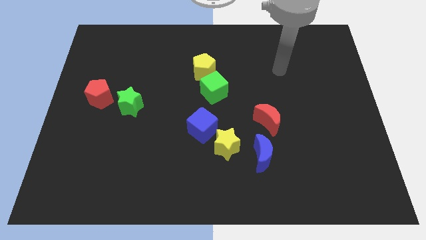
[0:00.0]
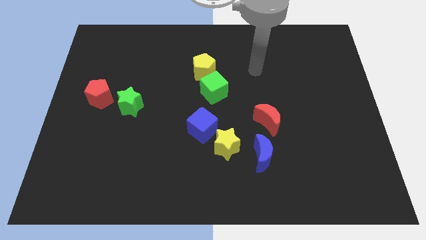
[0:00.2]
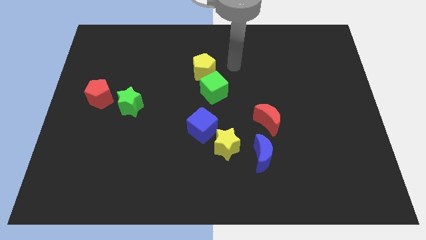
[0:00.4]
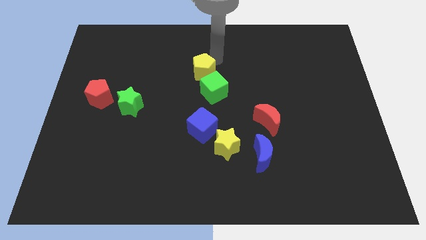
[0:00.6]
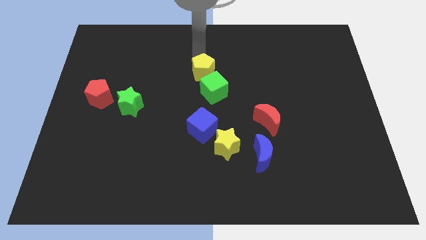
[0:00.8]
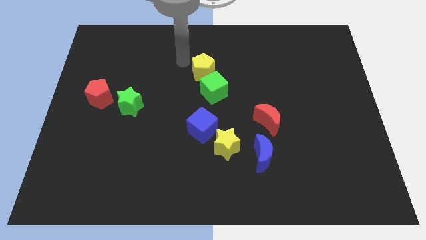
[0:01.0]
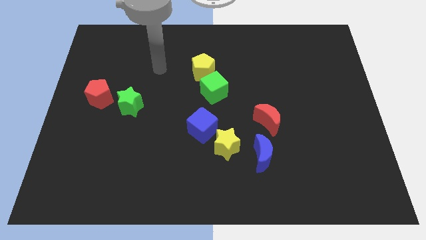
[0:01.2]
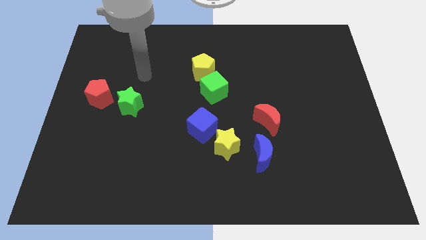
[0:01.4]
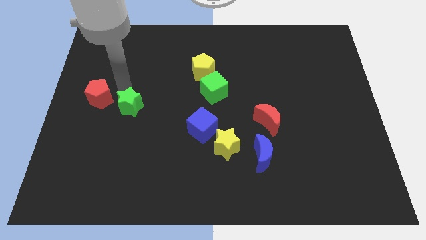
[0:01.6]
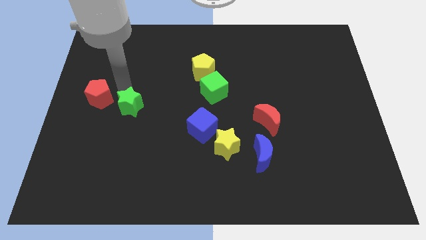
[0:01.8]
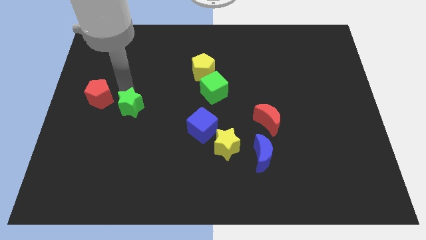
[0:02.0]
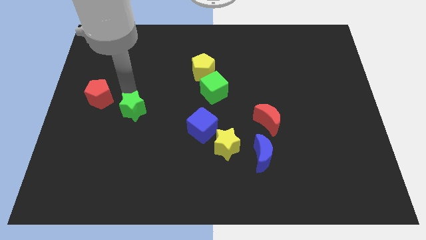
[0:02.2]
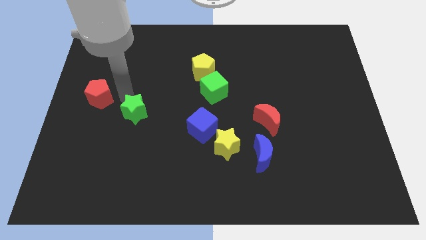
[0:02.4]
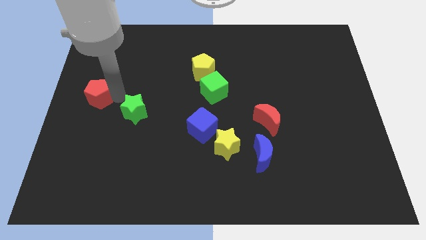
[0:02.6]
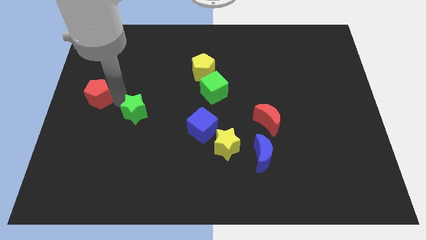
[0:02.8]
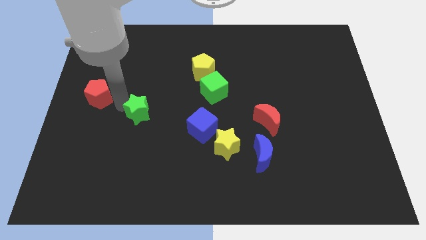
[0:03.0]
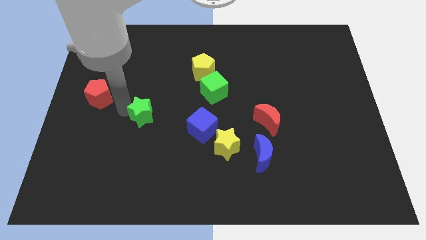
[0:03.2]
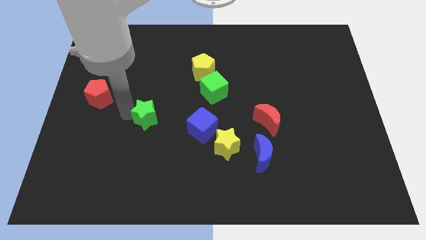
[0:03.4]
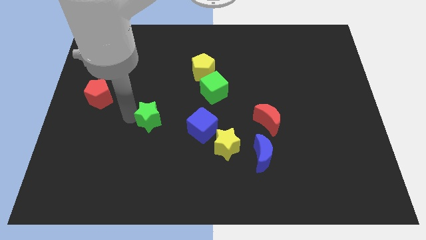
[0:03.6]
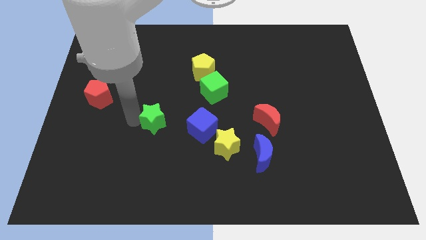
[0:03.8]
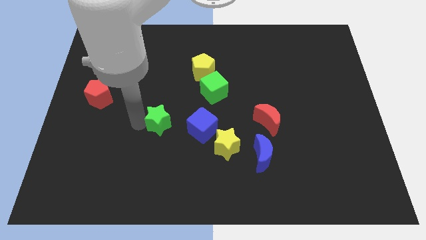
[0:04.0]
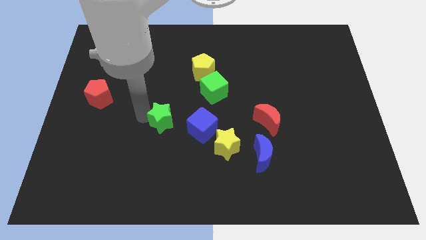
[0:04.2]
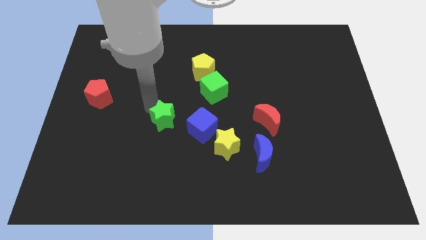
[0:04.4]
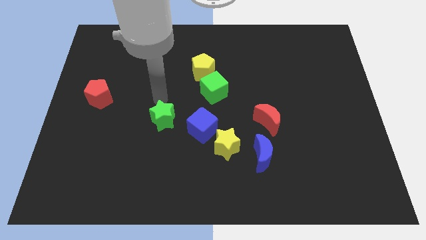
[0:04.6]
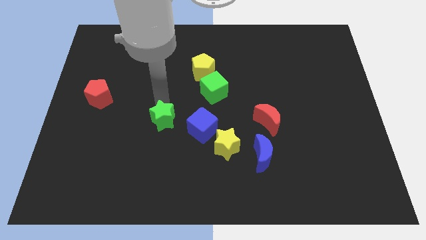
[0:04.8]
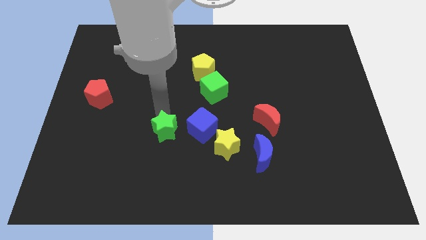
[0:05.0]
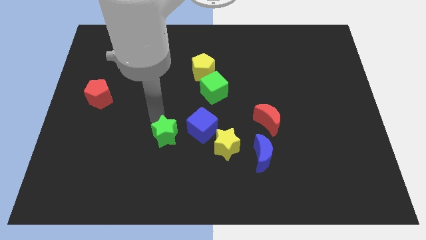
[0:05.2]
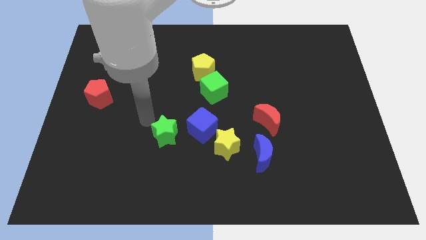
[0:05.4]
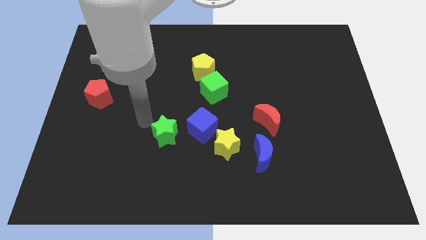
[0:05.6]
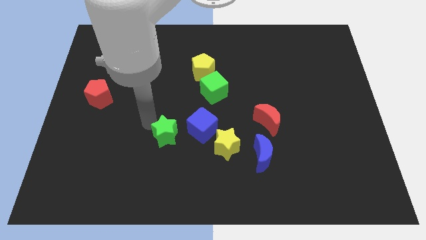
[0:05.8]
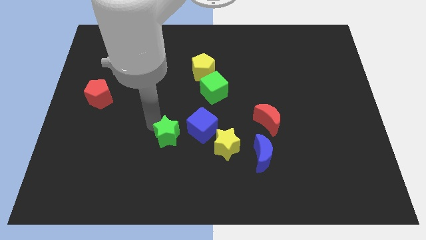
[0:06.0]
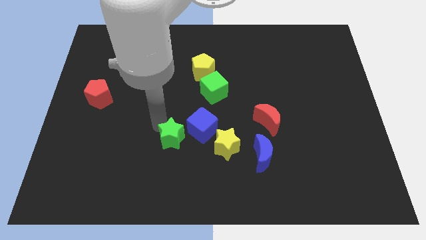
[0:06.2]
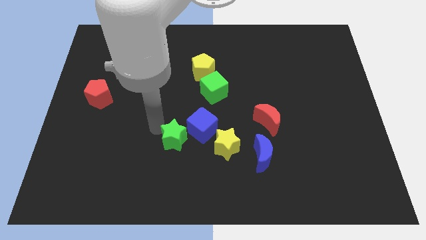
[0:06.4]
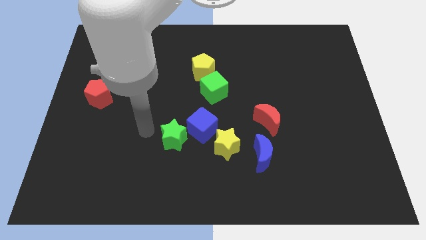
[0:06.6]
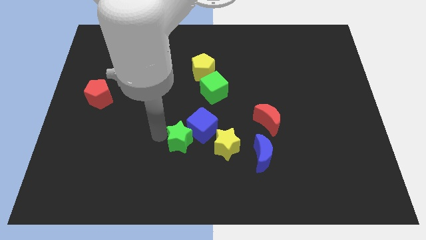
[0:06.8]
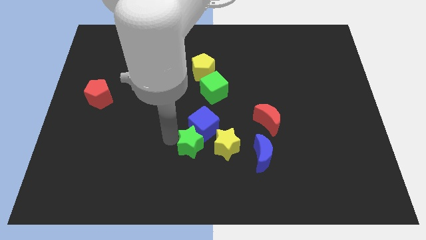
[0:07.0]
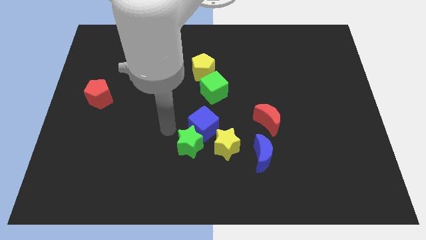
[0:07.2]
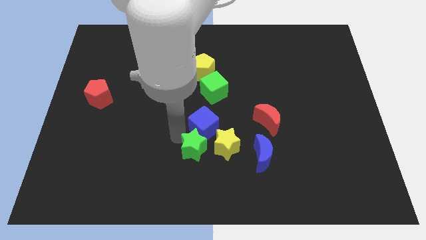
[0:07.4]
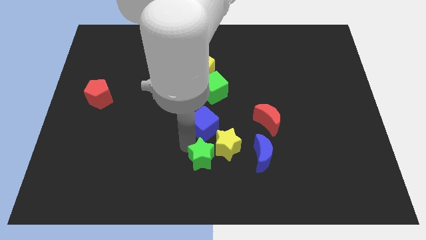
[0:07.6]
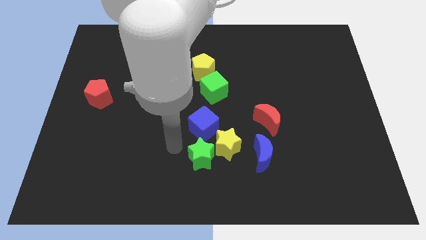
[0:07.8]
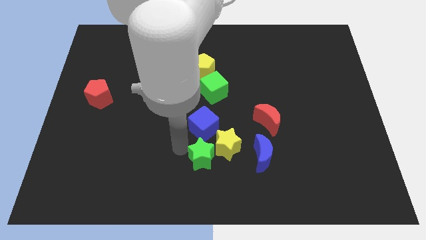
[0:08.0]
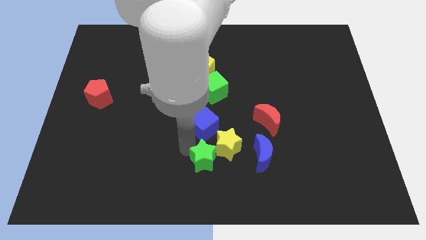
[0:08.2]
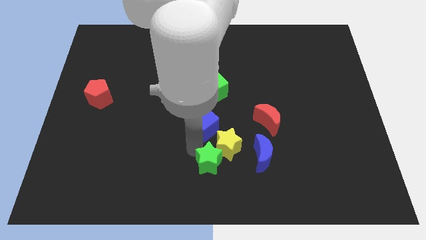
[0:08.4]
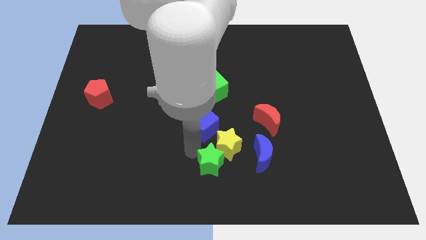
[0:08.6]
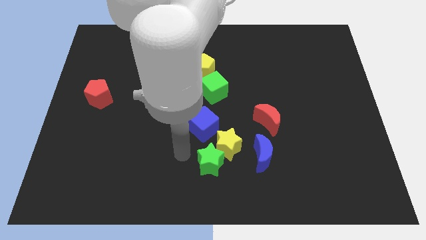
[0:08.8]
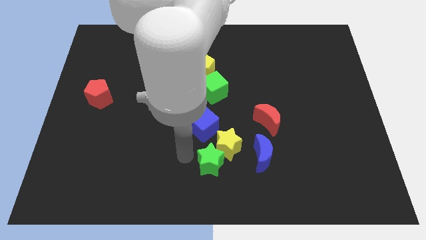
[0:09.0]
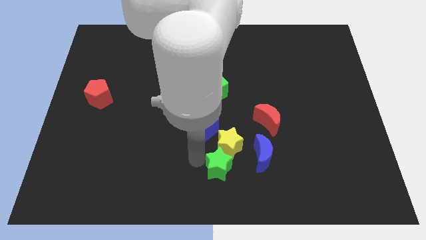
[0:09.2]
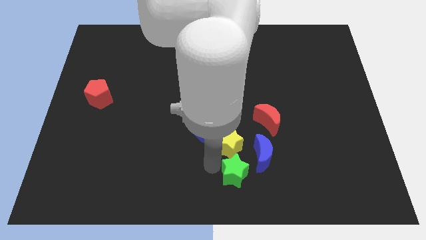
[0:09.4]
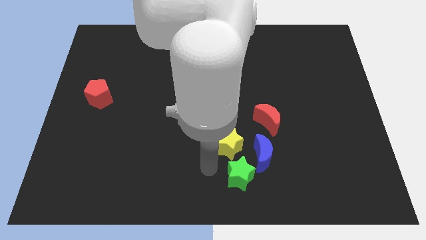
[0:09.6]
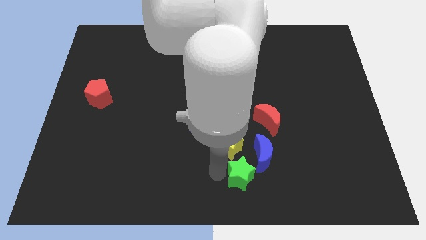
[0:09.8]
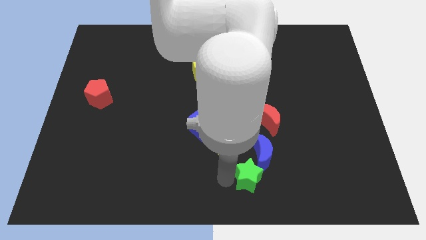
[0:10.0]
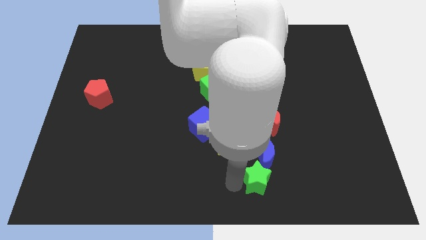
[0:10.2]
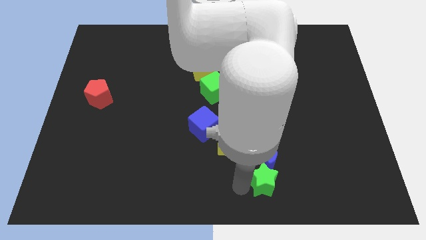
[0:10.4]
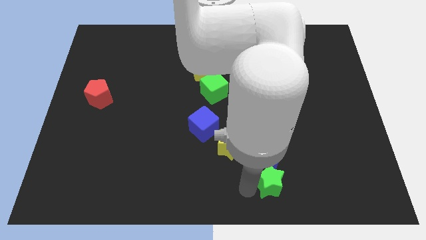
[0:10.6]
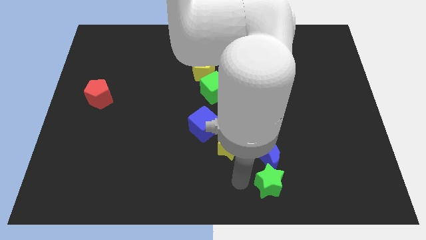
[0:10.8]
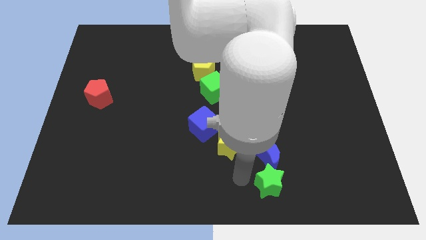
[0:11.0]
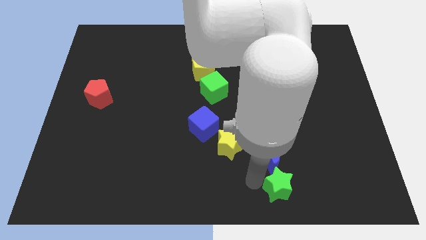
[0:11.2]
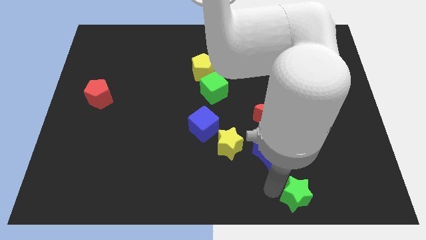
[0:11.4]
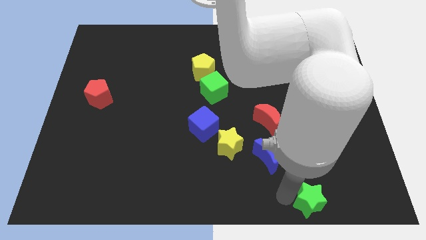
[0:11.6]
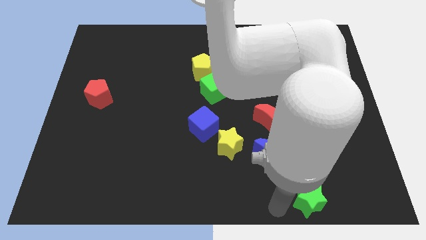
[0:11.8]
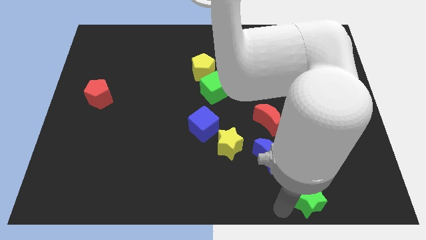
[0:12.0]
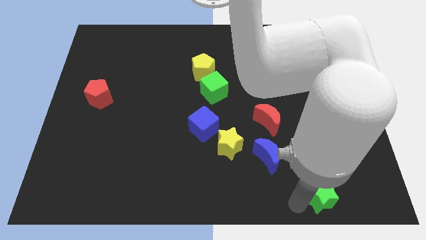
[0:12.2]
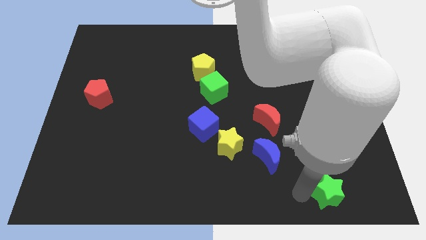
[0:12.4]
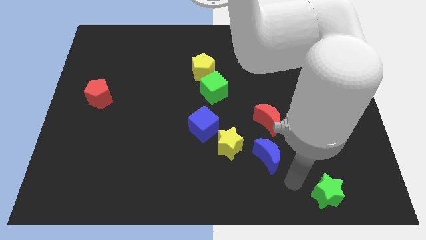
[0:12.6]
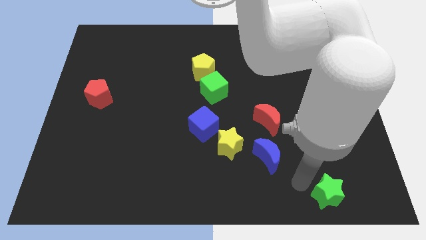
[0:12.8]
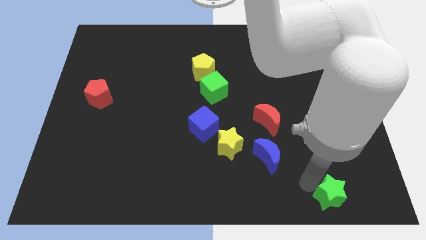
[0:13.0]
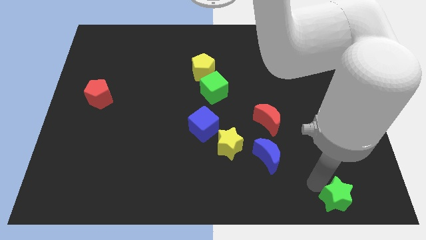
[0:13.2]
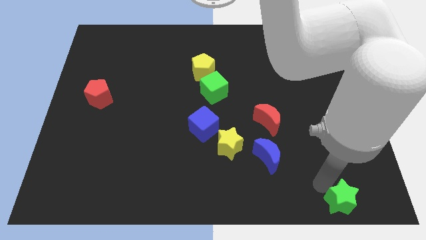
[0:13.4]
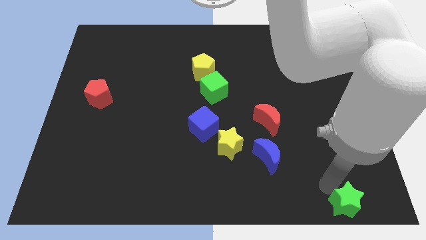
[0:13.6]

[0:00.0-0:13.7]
put the green star to the lower right corner
